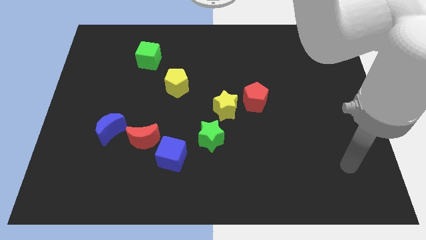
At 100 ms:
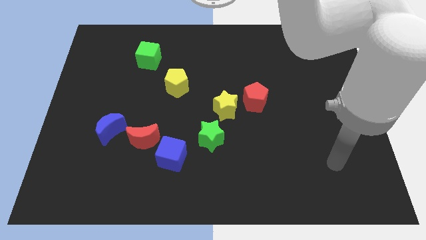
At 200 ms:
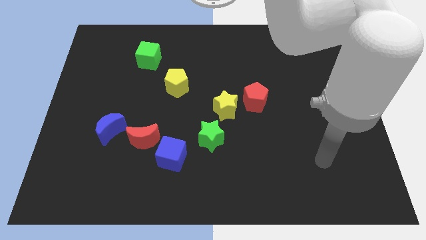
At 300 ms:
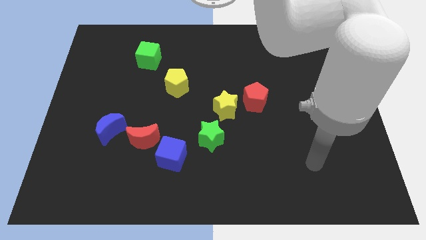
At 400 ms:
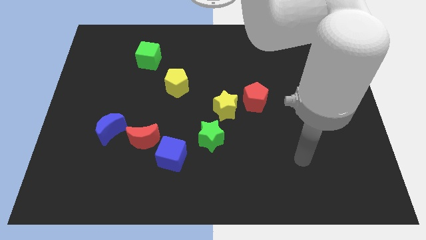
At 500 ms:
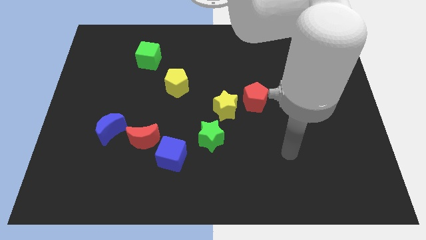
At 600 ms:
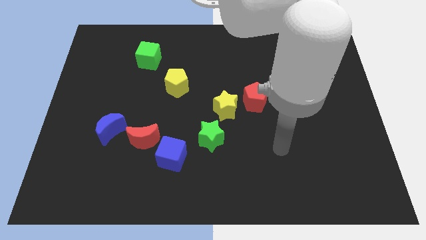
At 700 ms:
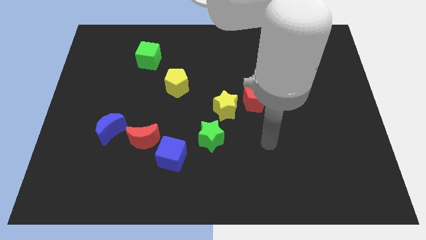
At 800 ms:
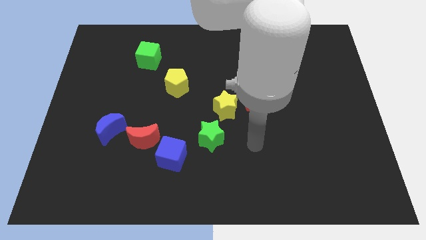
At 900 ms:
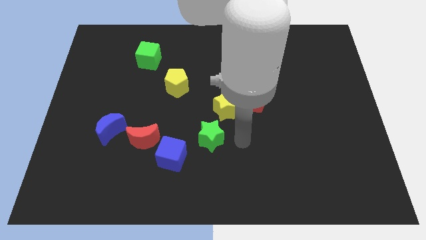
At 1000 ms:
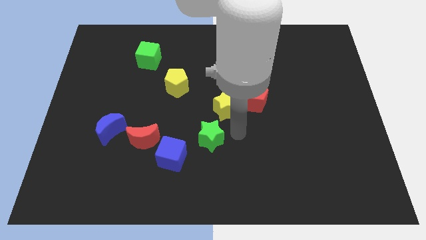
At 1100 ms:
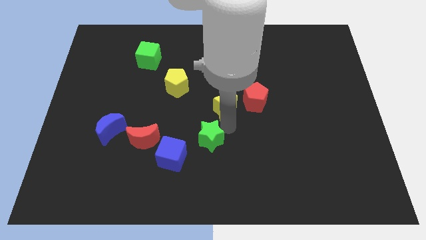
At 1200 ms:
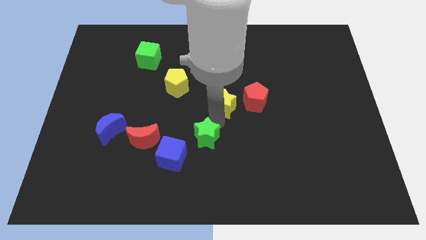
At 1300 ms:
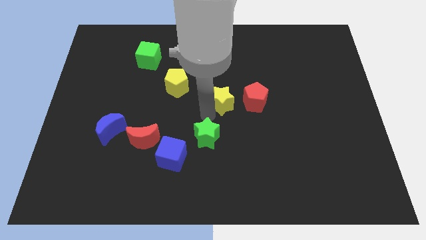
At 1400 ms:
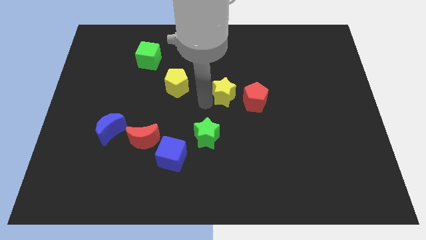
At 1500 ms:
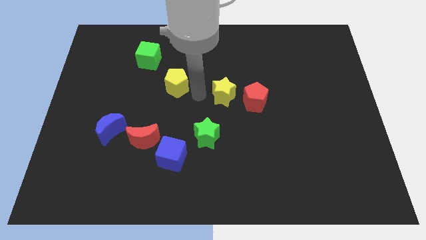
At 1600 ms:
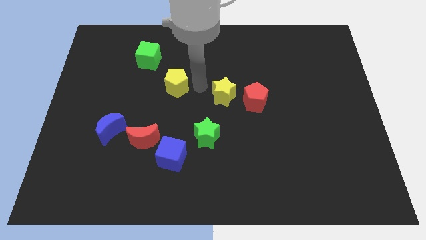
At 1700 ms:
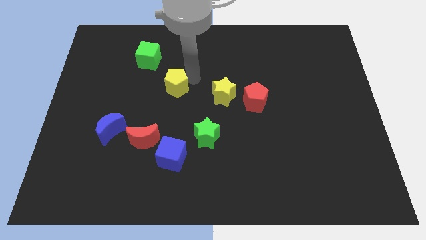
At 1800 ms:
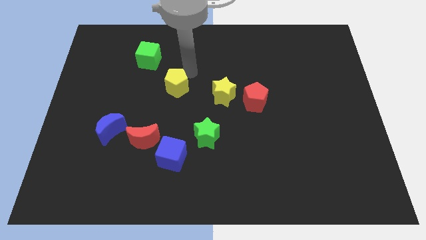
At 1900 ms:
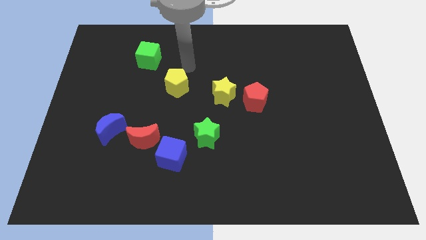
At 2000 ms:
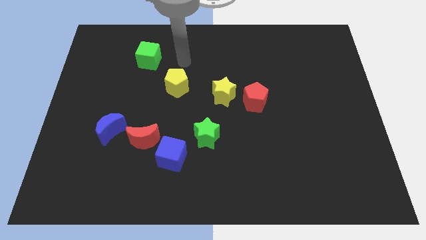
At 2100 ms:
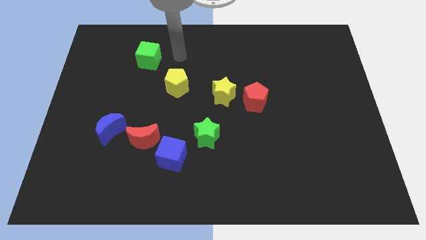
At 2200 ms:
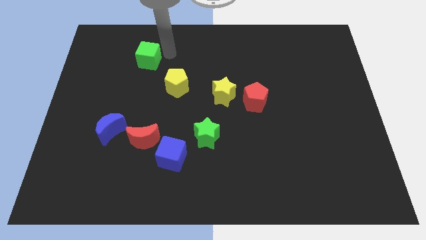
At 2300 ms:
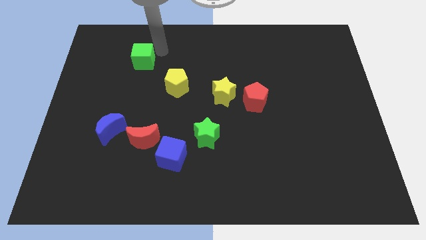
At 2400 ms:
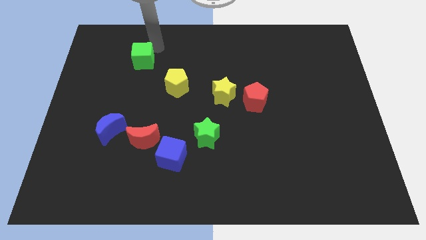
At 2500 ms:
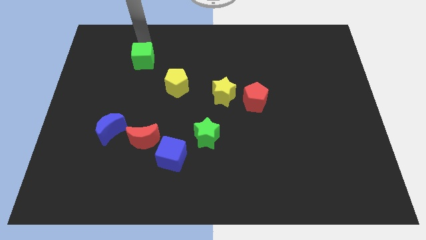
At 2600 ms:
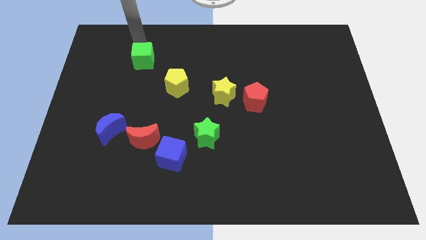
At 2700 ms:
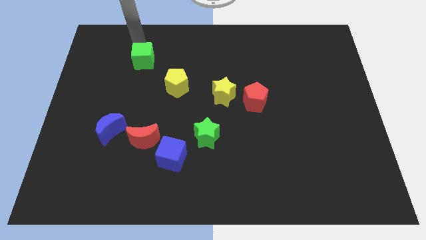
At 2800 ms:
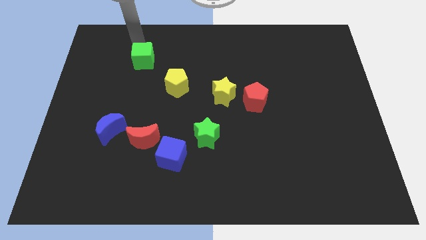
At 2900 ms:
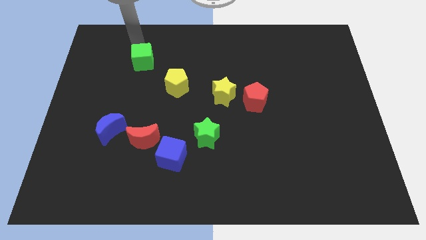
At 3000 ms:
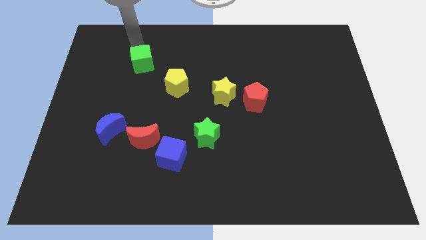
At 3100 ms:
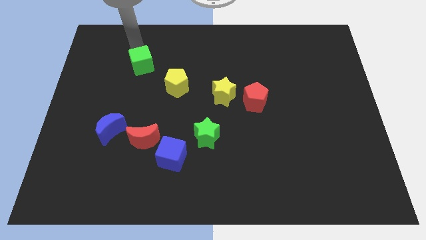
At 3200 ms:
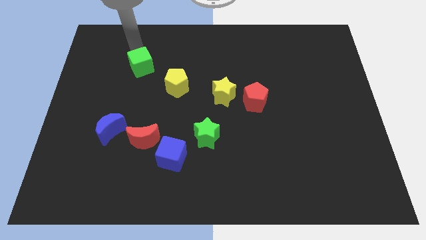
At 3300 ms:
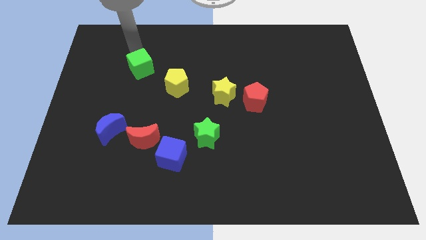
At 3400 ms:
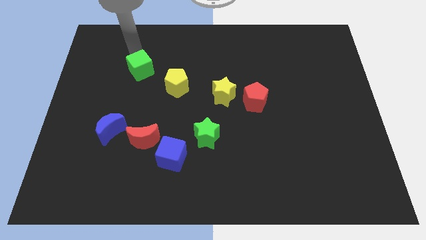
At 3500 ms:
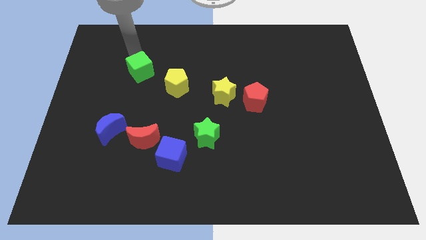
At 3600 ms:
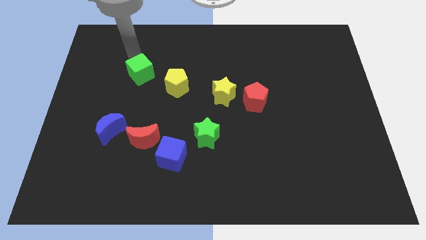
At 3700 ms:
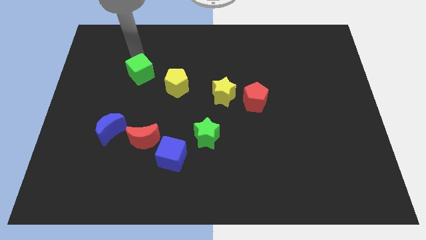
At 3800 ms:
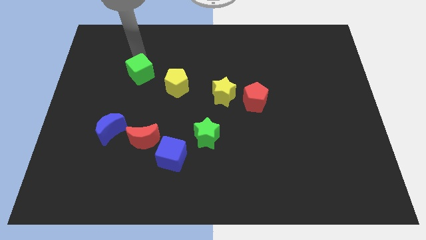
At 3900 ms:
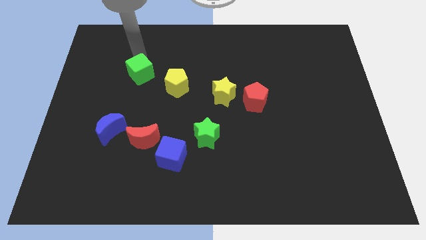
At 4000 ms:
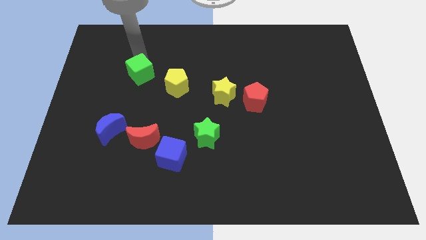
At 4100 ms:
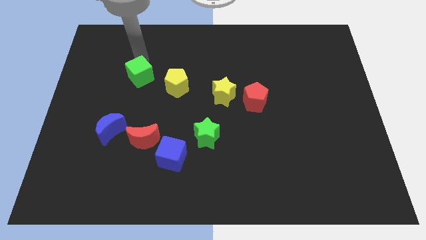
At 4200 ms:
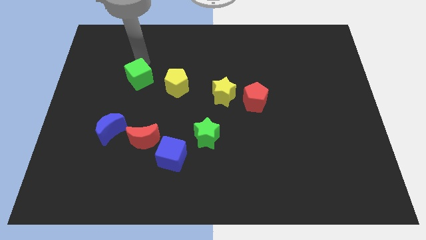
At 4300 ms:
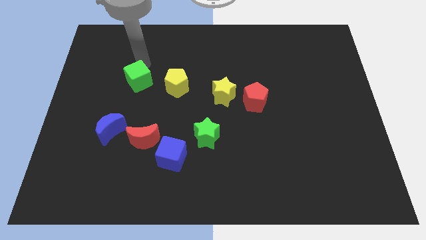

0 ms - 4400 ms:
move the green cube down a little

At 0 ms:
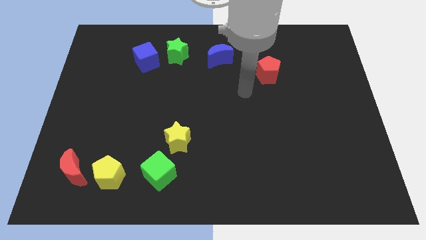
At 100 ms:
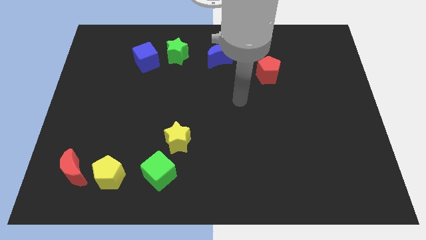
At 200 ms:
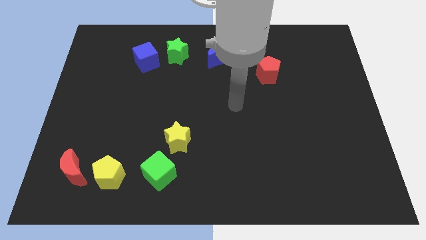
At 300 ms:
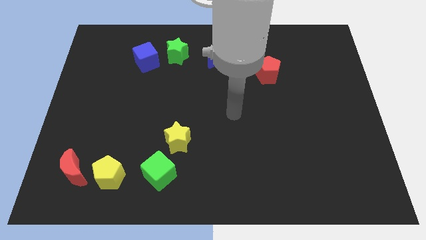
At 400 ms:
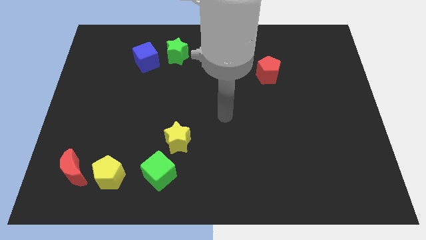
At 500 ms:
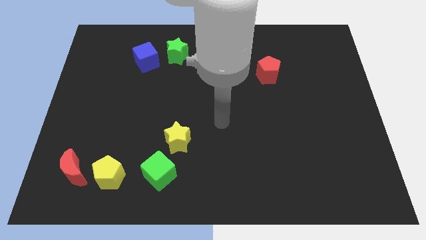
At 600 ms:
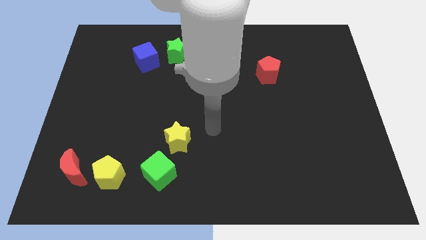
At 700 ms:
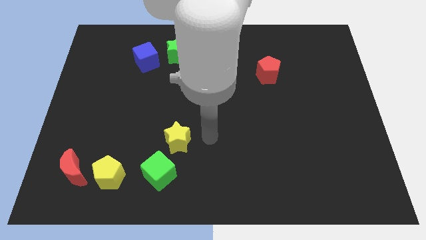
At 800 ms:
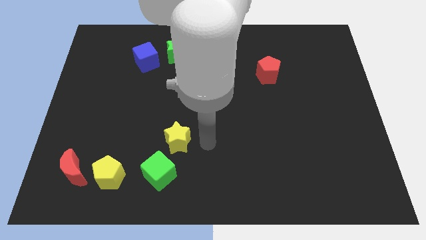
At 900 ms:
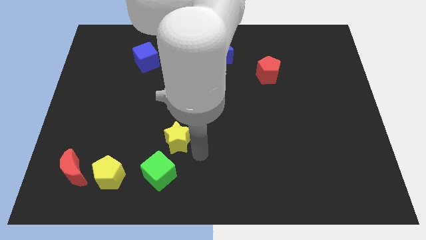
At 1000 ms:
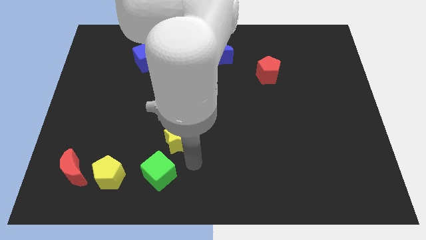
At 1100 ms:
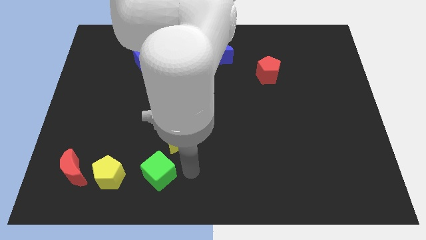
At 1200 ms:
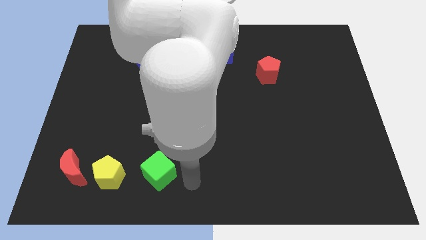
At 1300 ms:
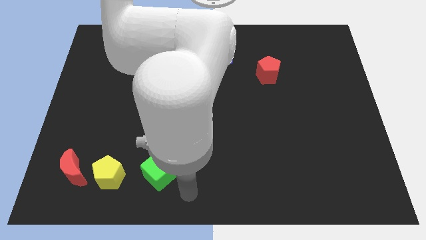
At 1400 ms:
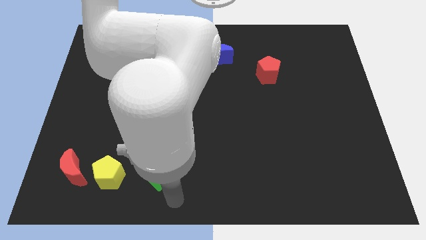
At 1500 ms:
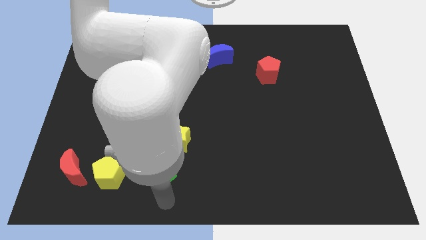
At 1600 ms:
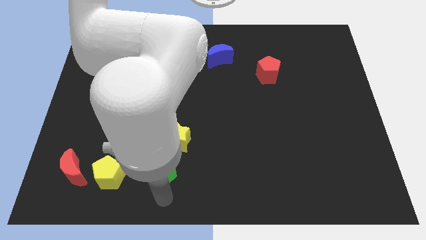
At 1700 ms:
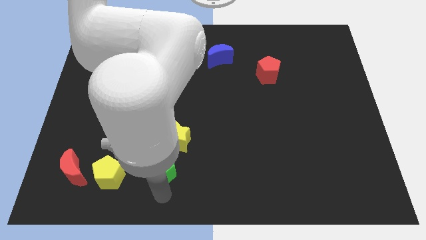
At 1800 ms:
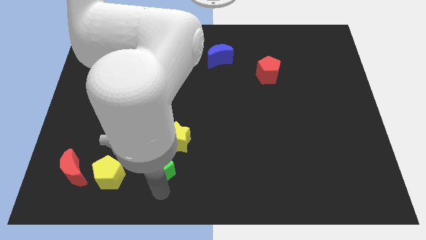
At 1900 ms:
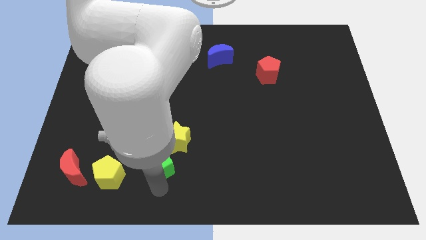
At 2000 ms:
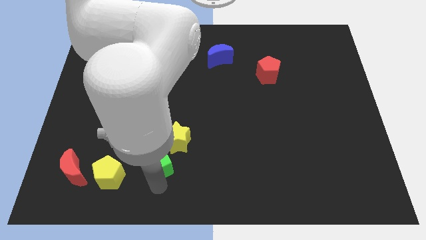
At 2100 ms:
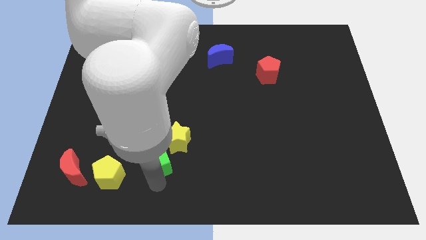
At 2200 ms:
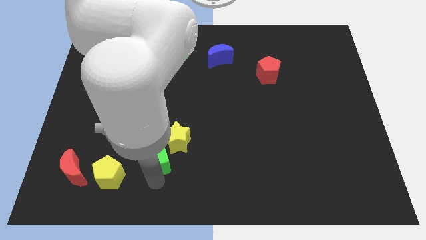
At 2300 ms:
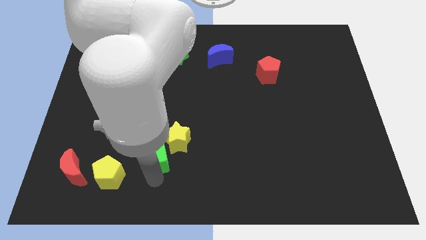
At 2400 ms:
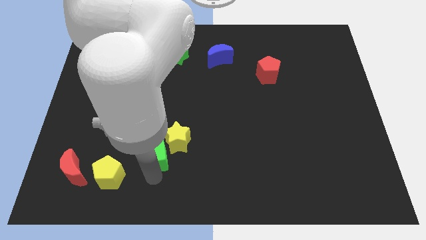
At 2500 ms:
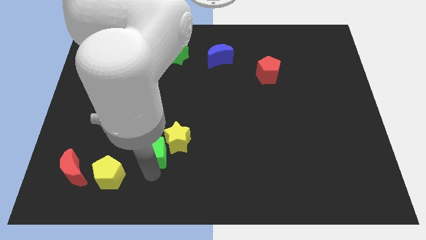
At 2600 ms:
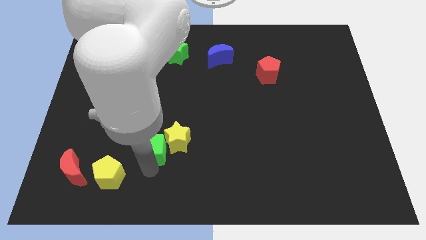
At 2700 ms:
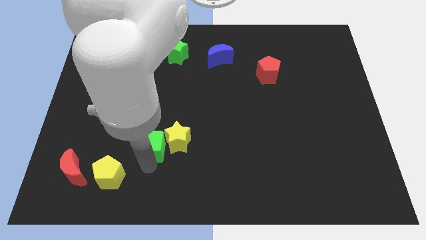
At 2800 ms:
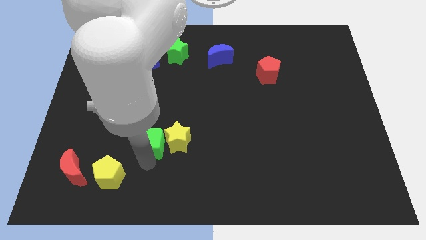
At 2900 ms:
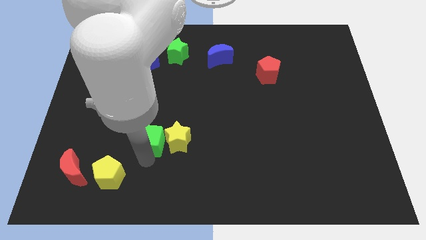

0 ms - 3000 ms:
slightly push the green cube up

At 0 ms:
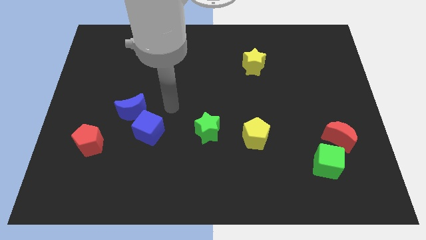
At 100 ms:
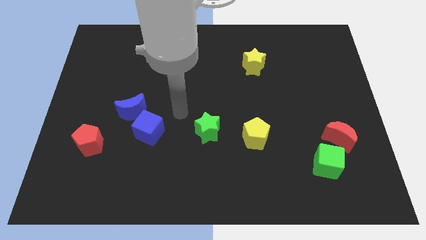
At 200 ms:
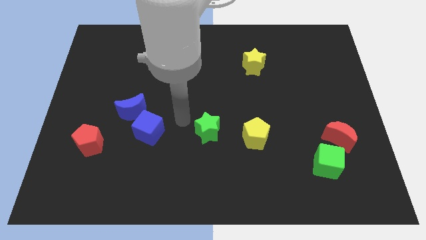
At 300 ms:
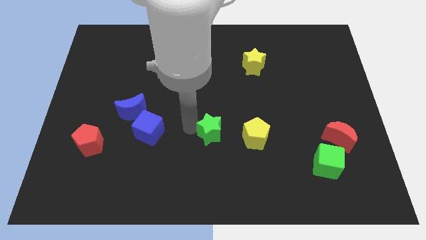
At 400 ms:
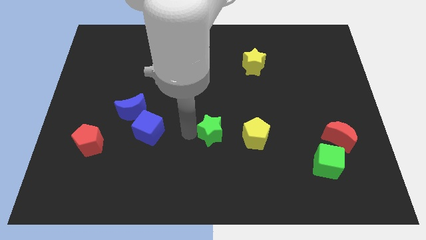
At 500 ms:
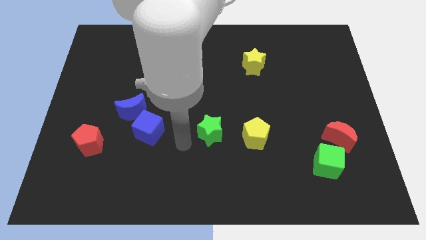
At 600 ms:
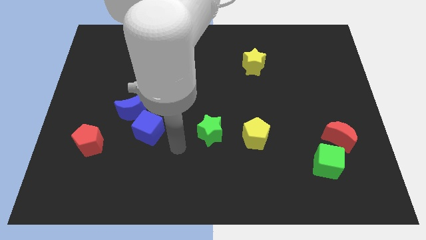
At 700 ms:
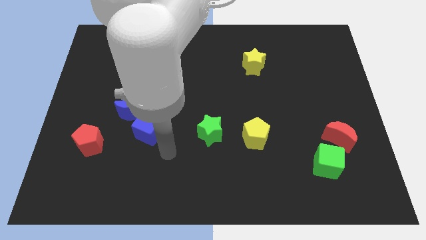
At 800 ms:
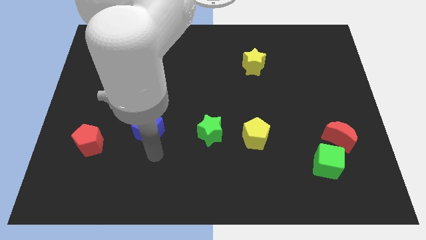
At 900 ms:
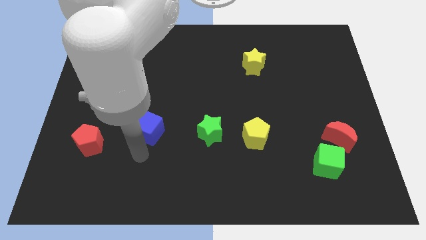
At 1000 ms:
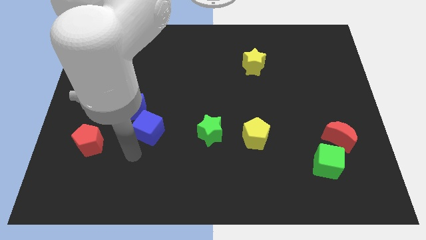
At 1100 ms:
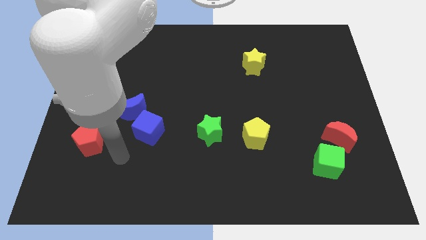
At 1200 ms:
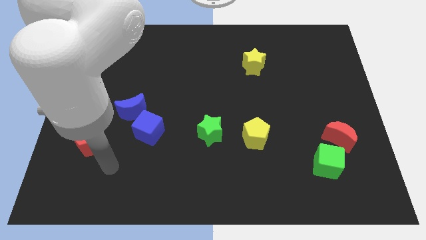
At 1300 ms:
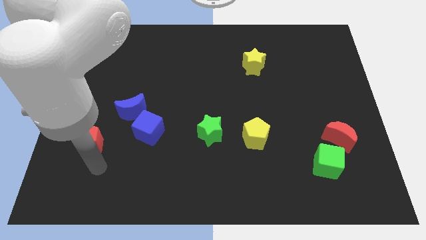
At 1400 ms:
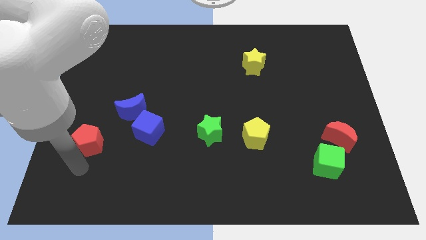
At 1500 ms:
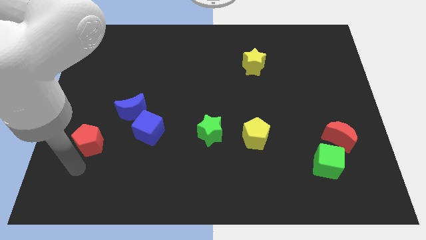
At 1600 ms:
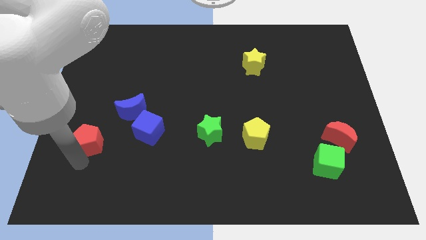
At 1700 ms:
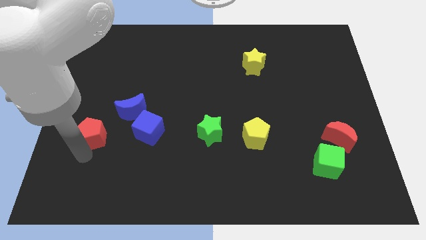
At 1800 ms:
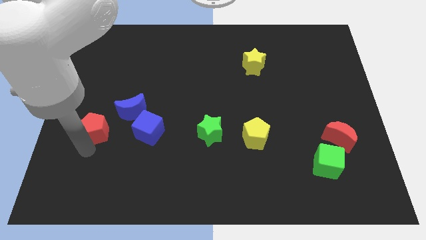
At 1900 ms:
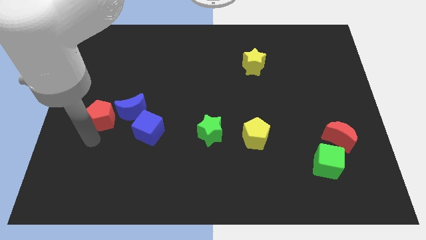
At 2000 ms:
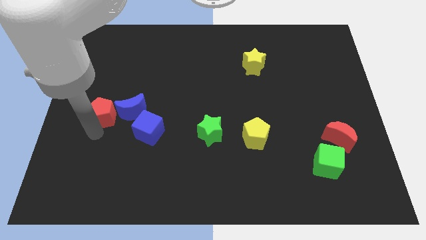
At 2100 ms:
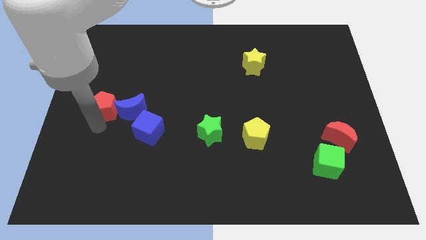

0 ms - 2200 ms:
move the red pentagon upwards and to the right diagonally a bit
